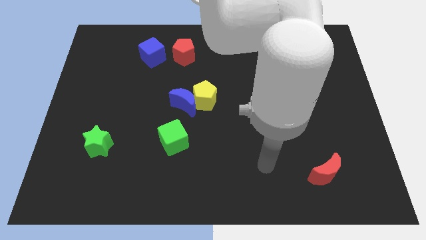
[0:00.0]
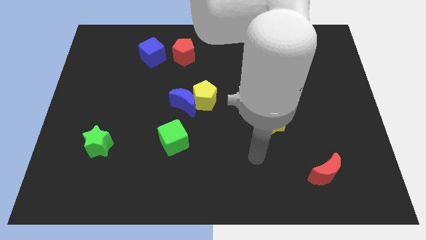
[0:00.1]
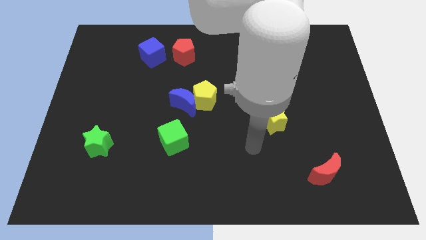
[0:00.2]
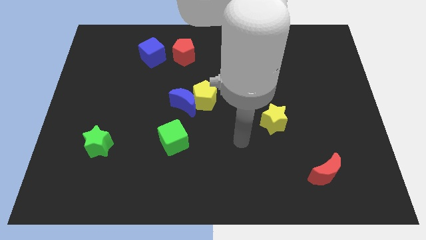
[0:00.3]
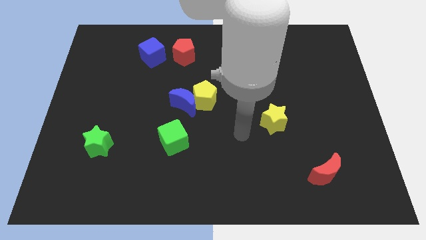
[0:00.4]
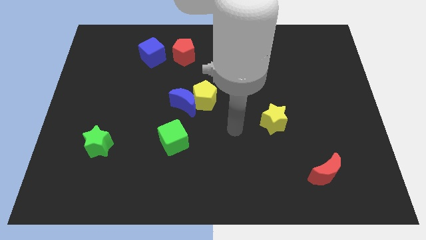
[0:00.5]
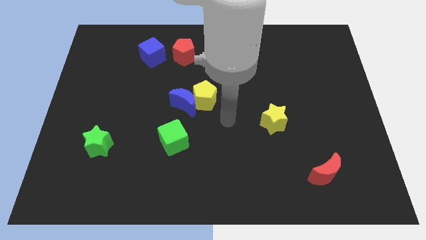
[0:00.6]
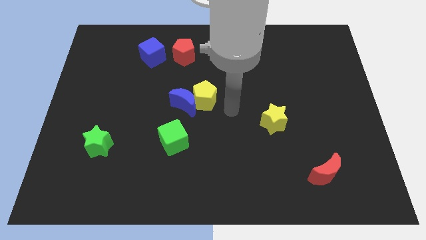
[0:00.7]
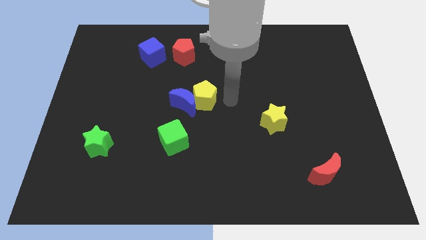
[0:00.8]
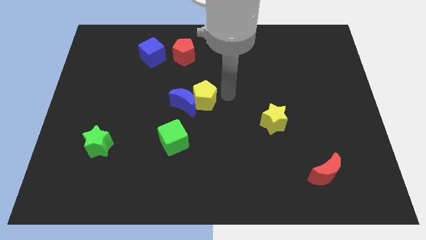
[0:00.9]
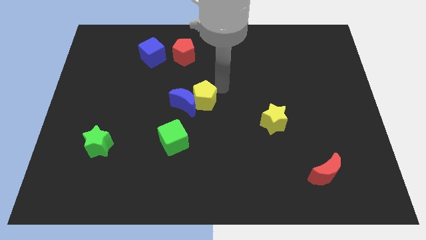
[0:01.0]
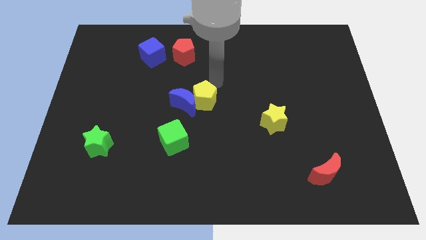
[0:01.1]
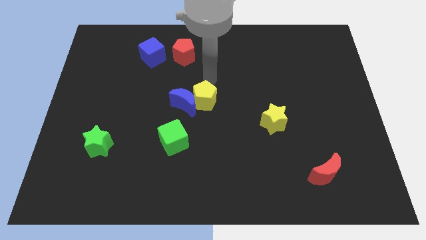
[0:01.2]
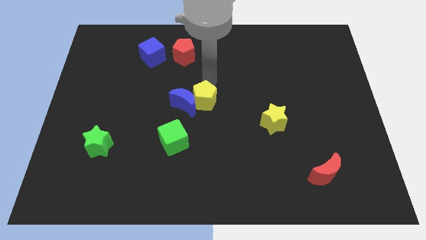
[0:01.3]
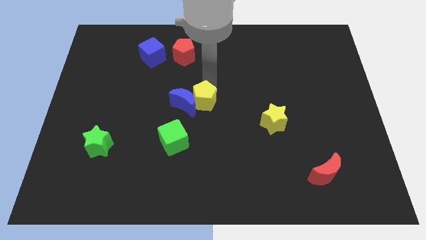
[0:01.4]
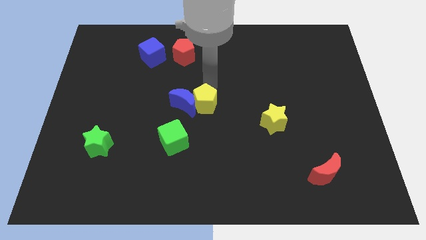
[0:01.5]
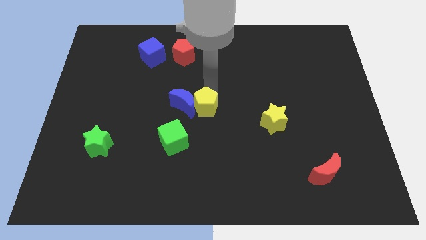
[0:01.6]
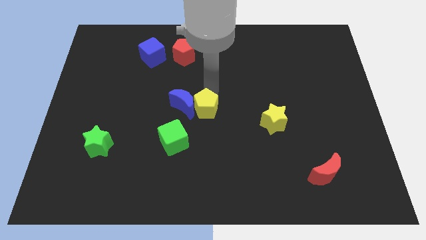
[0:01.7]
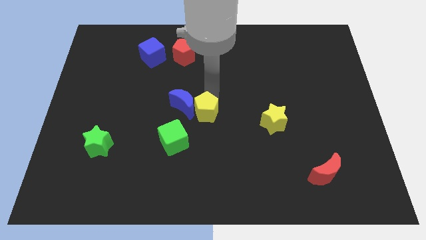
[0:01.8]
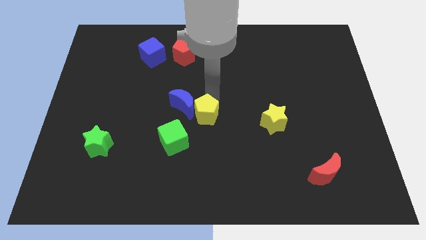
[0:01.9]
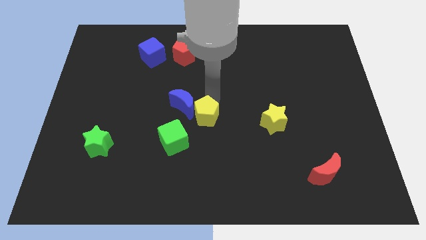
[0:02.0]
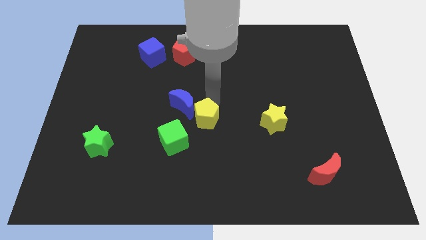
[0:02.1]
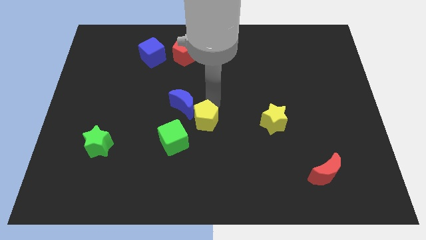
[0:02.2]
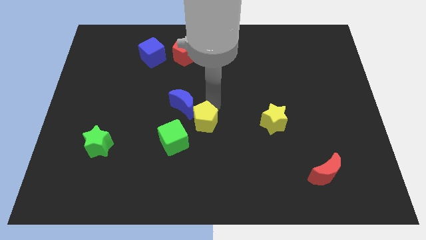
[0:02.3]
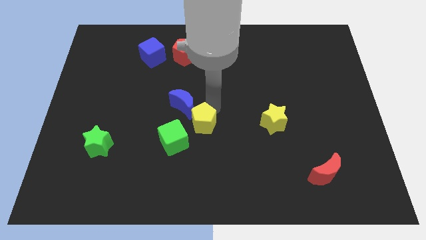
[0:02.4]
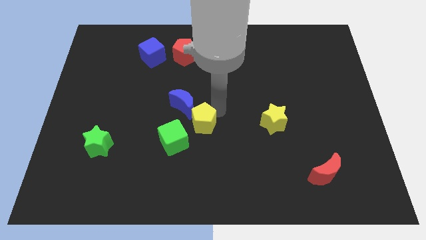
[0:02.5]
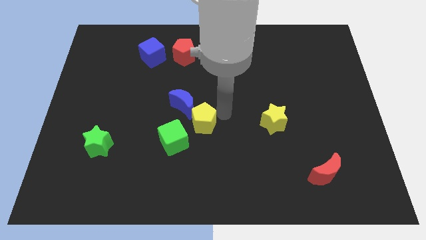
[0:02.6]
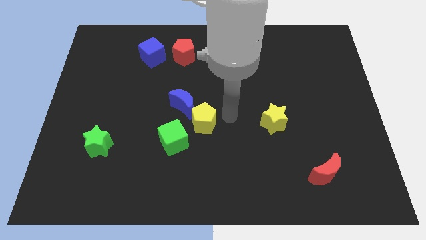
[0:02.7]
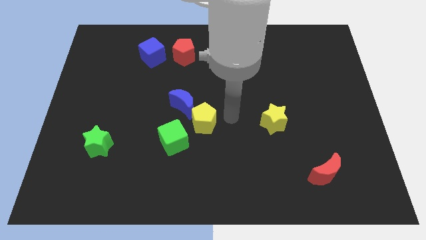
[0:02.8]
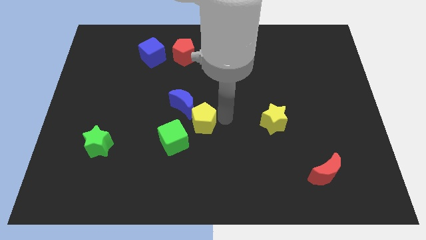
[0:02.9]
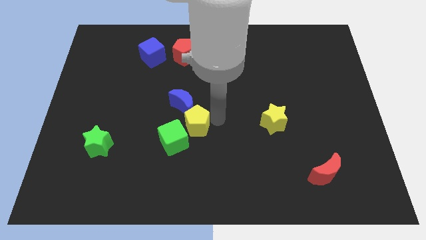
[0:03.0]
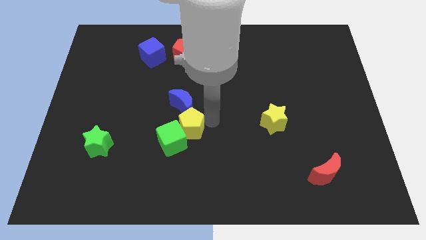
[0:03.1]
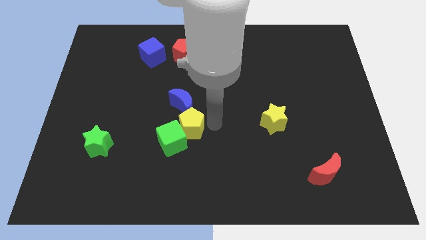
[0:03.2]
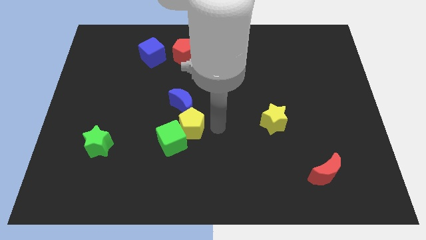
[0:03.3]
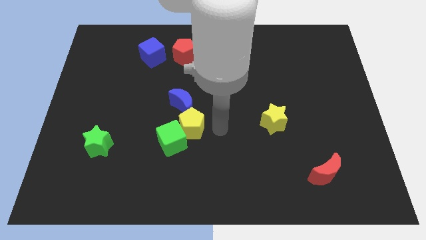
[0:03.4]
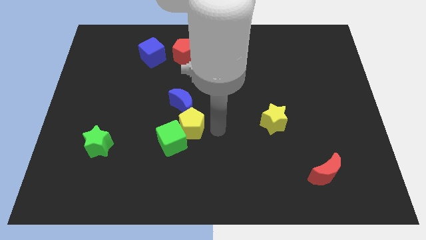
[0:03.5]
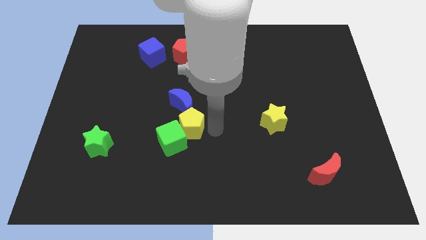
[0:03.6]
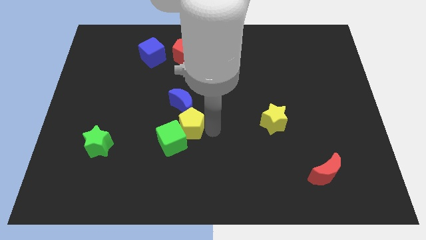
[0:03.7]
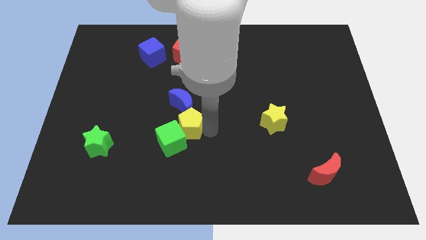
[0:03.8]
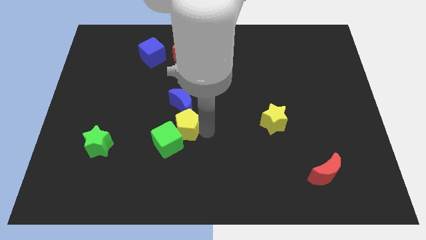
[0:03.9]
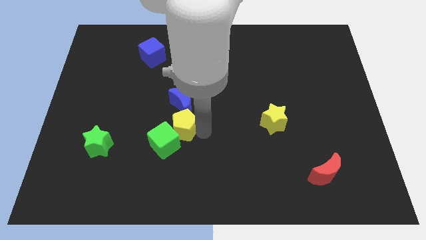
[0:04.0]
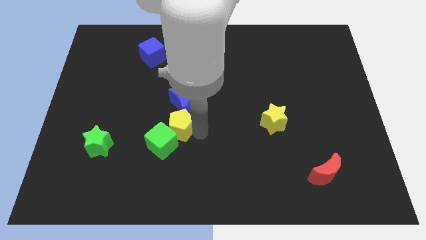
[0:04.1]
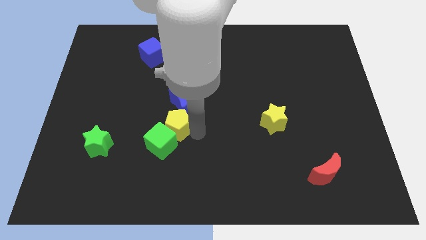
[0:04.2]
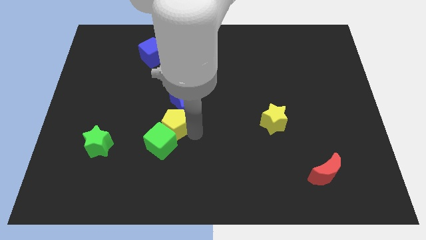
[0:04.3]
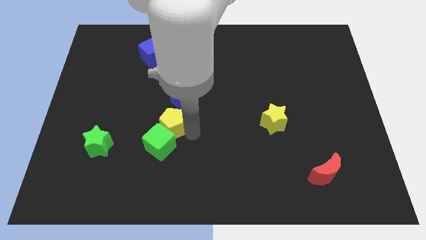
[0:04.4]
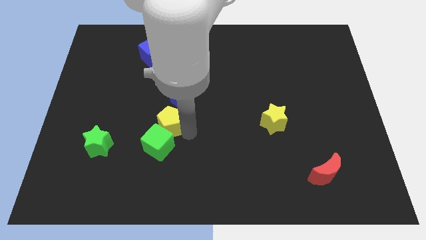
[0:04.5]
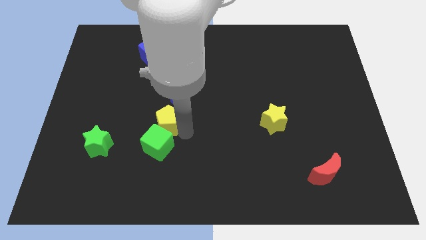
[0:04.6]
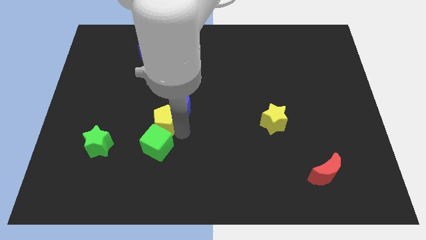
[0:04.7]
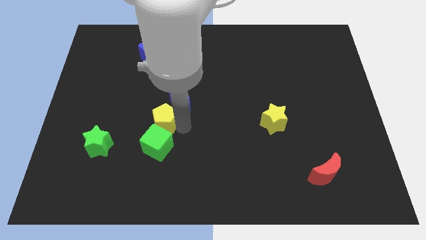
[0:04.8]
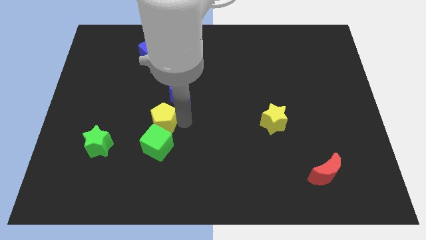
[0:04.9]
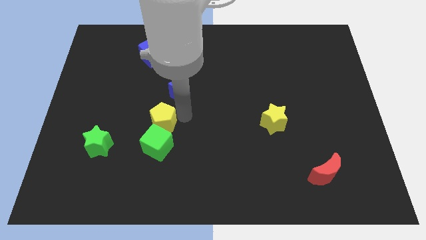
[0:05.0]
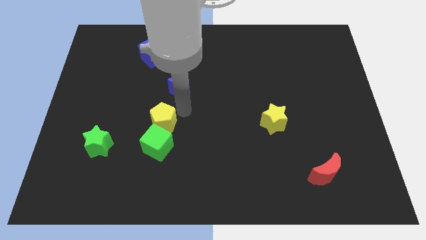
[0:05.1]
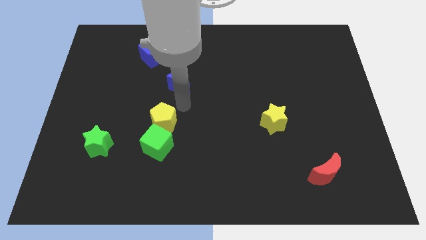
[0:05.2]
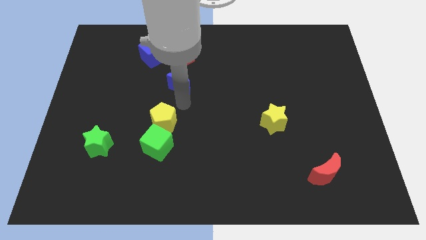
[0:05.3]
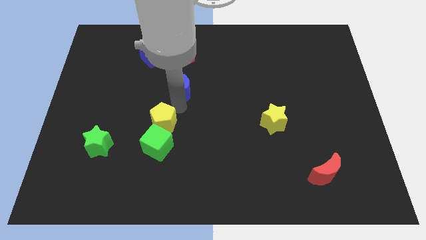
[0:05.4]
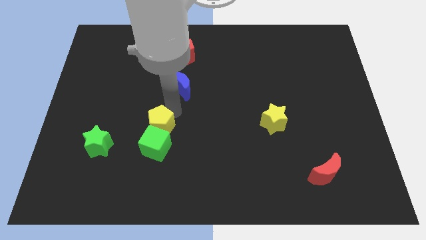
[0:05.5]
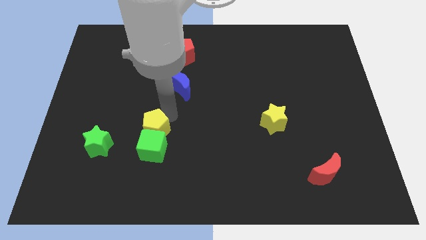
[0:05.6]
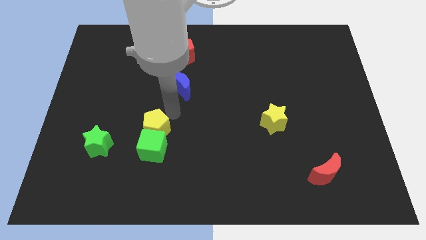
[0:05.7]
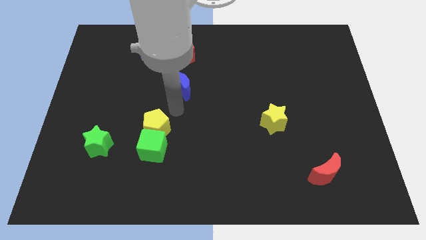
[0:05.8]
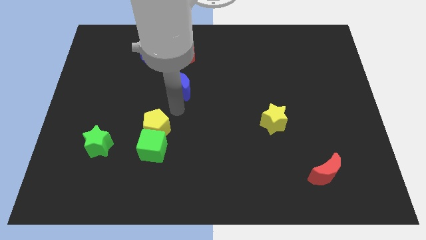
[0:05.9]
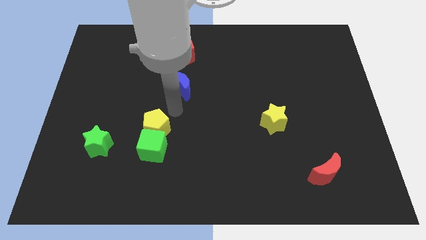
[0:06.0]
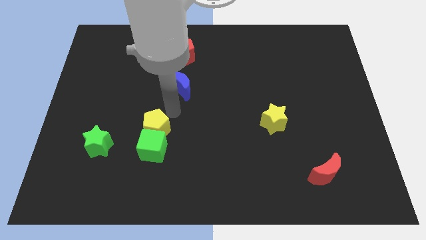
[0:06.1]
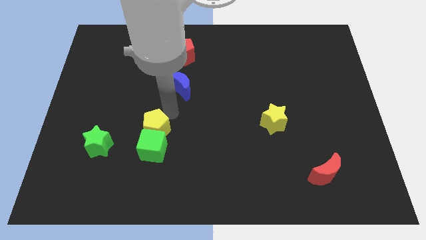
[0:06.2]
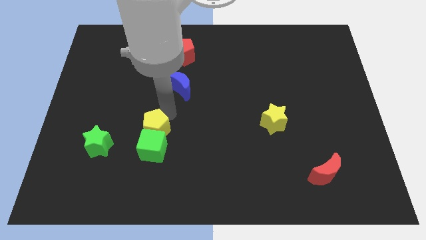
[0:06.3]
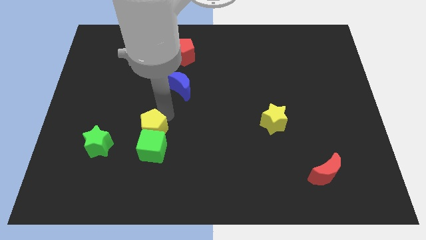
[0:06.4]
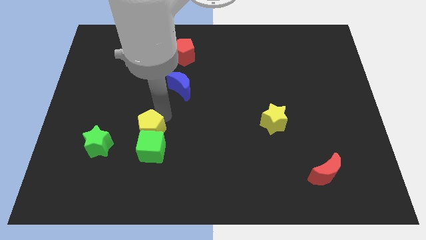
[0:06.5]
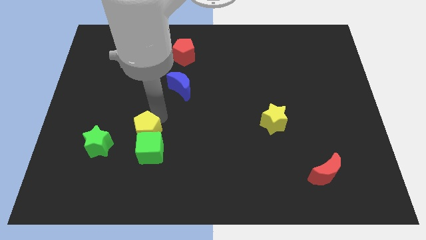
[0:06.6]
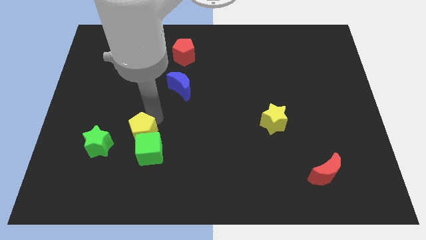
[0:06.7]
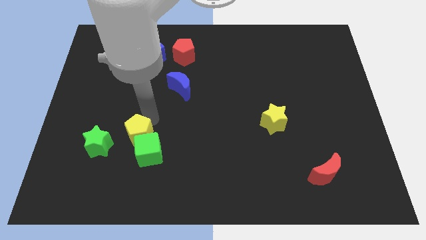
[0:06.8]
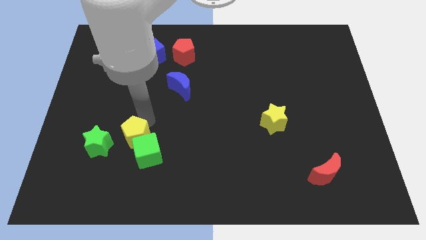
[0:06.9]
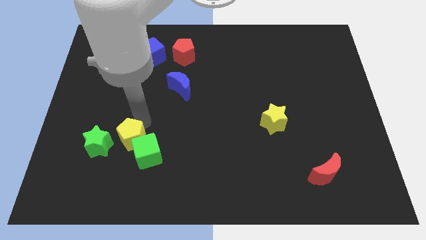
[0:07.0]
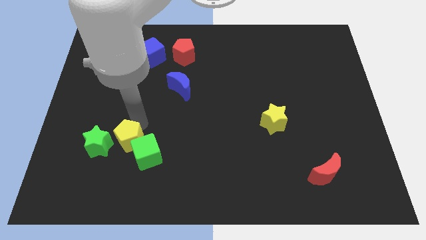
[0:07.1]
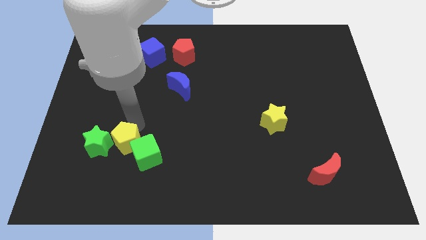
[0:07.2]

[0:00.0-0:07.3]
push the yellow pentagon to the bottom right of the green star

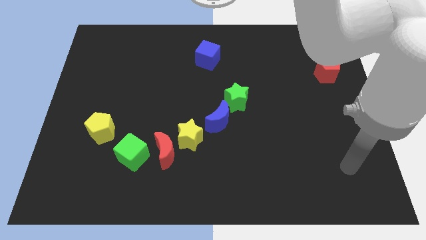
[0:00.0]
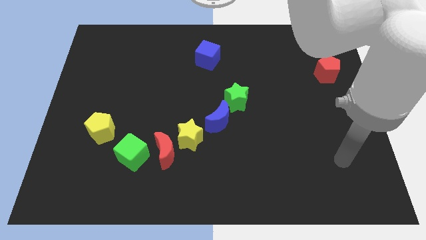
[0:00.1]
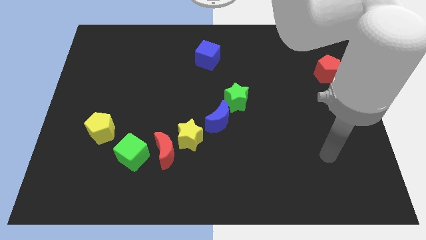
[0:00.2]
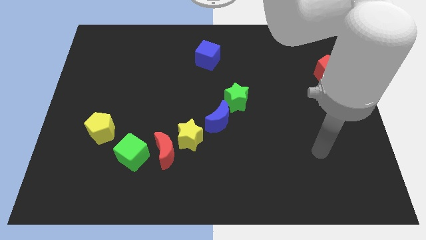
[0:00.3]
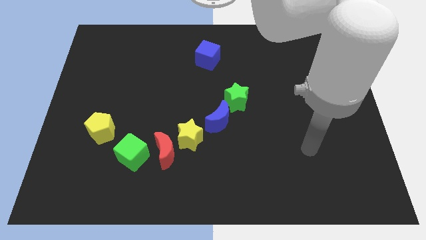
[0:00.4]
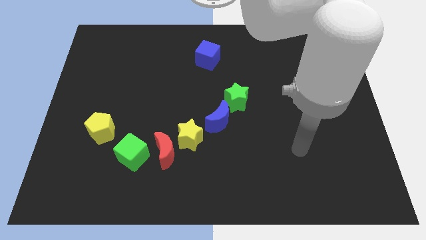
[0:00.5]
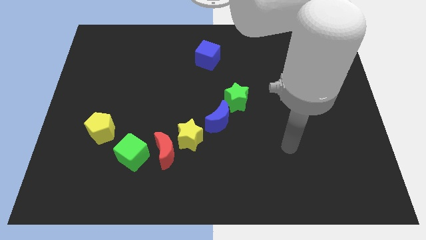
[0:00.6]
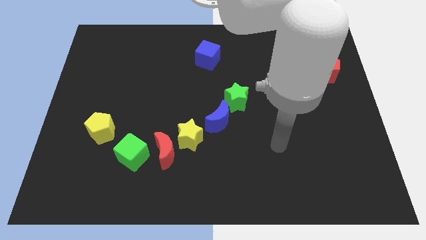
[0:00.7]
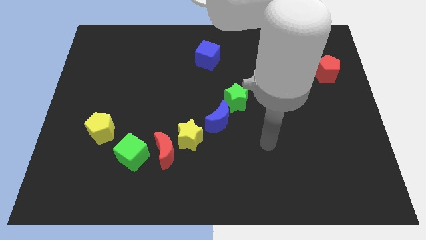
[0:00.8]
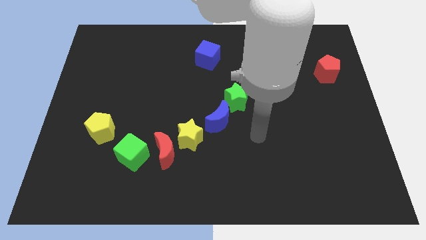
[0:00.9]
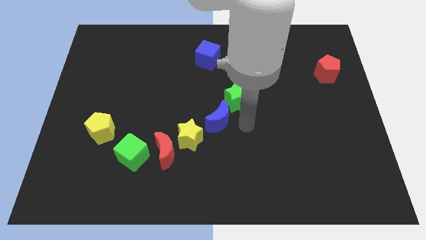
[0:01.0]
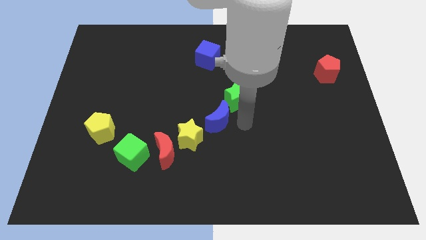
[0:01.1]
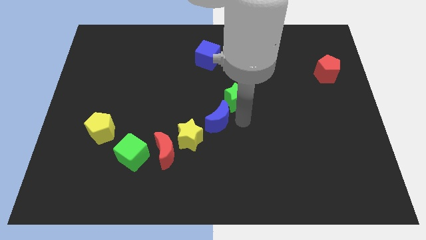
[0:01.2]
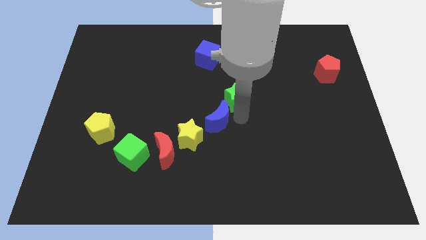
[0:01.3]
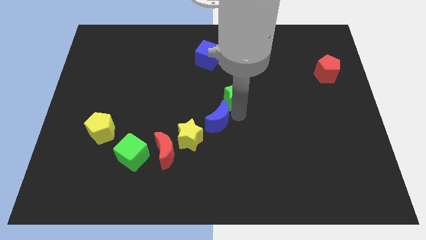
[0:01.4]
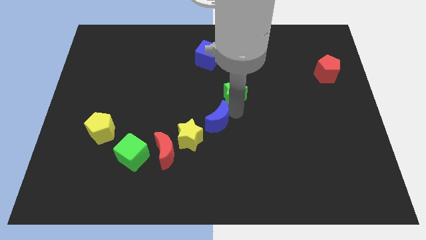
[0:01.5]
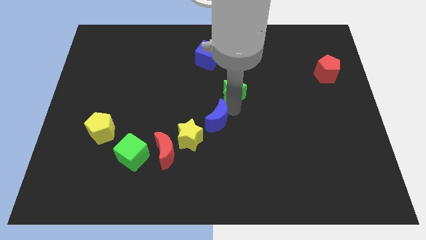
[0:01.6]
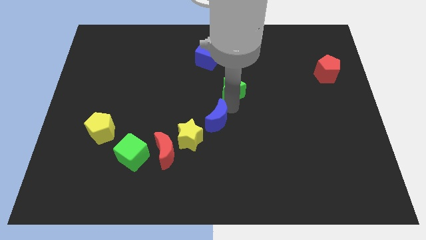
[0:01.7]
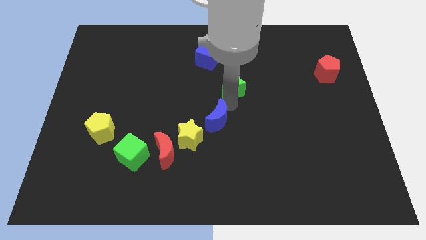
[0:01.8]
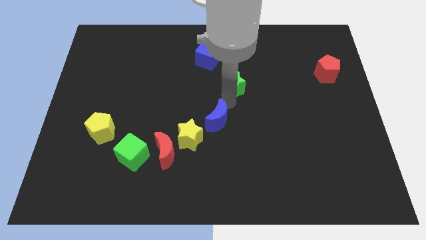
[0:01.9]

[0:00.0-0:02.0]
slide the green star diagonally down and to the right of the blue cube
